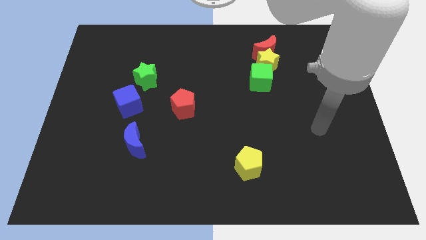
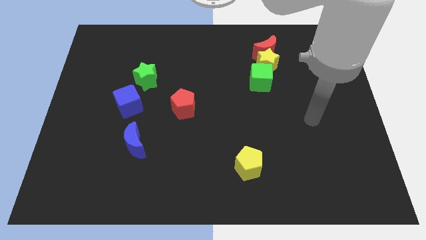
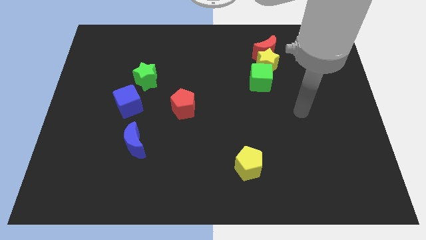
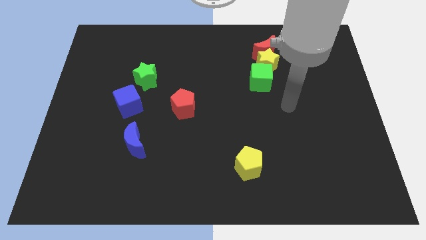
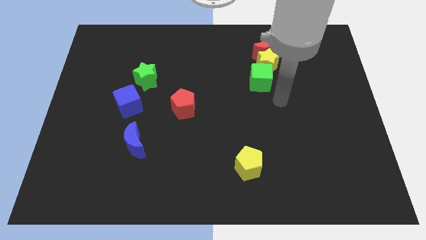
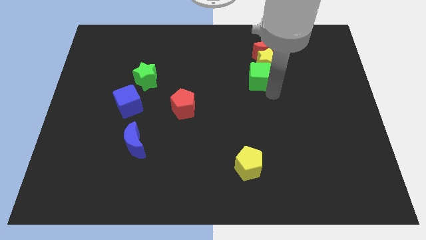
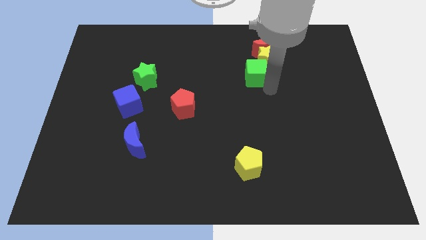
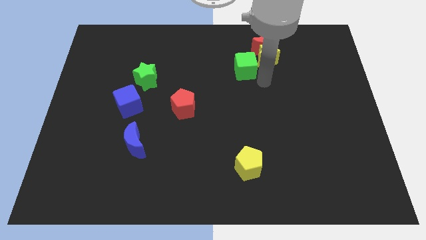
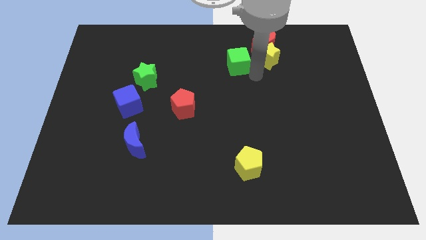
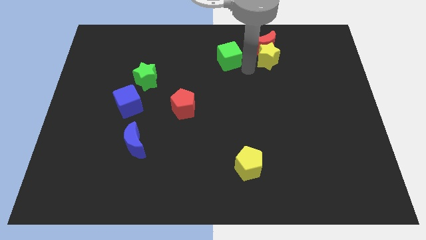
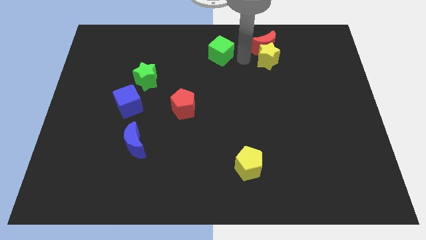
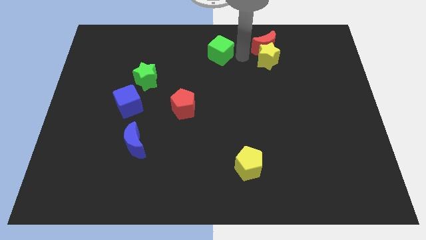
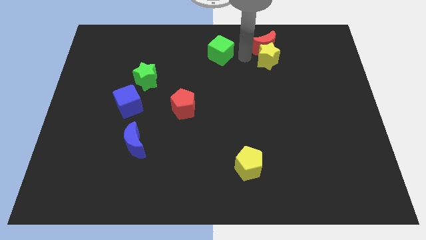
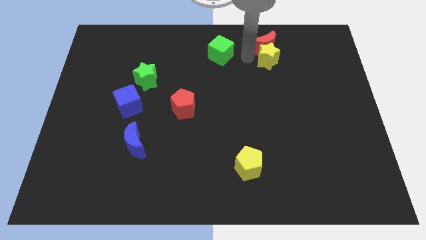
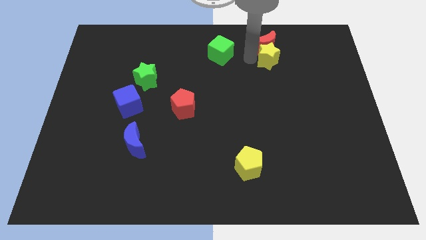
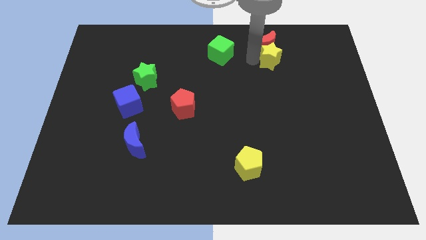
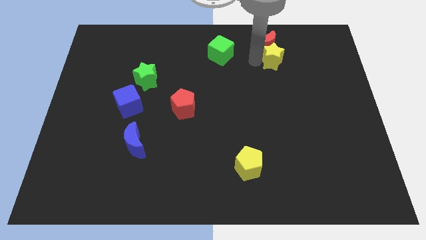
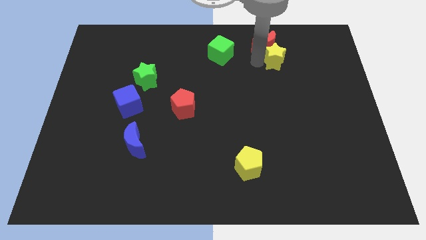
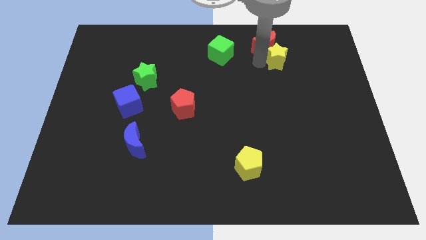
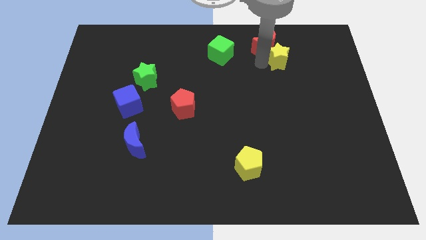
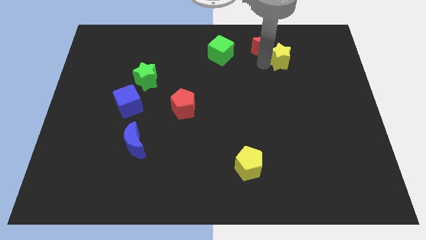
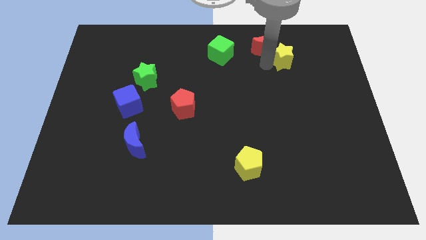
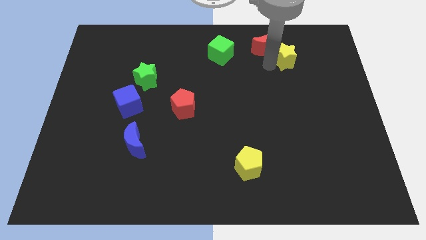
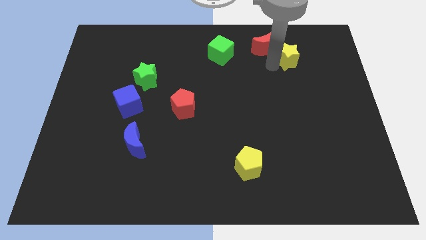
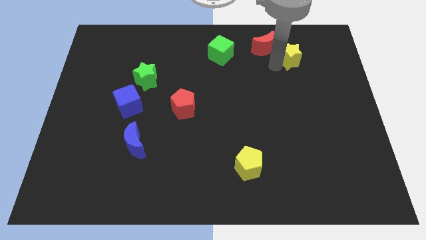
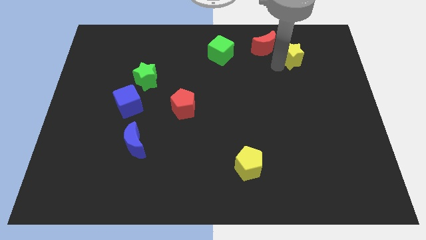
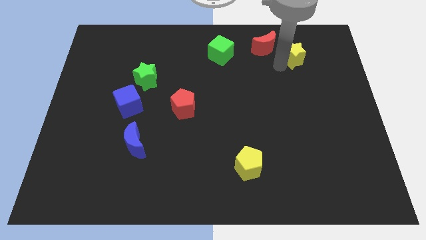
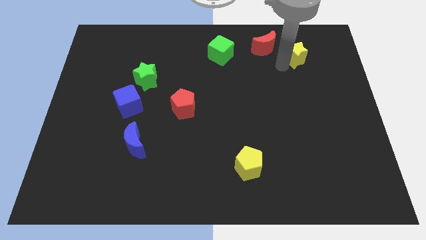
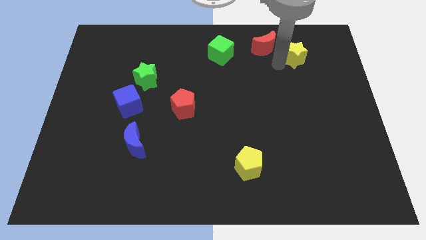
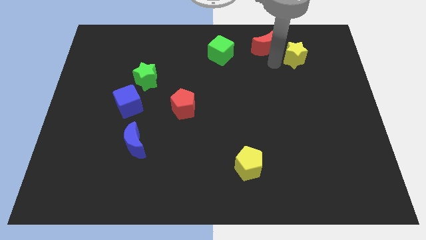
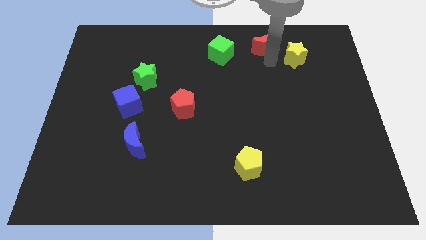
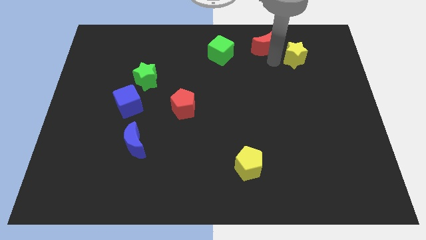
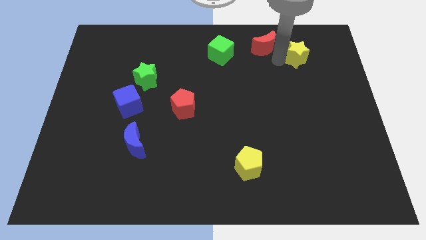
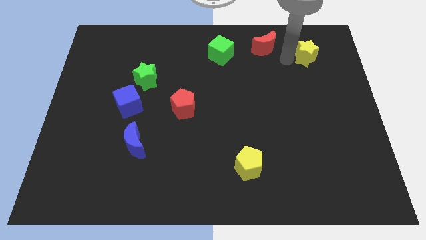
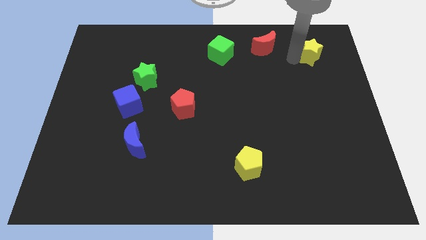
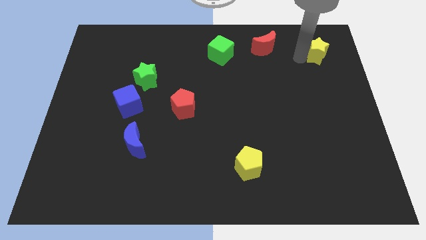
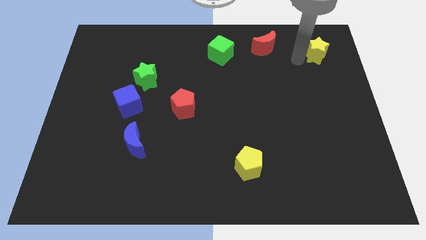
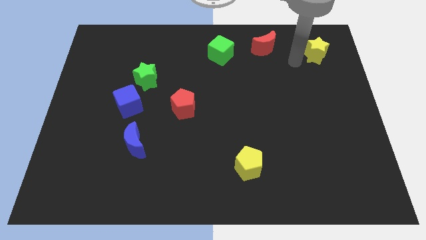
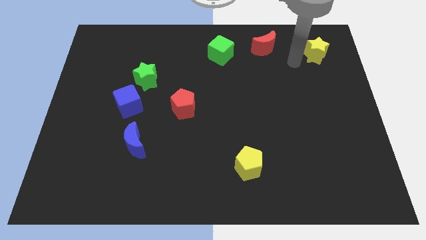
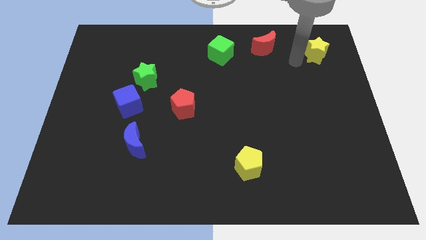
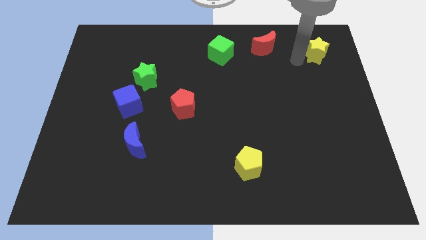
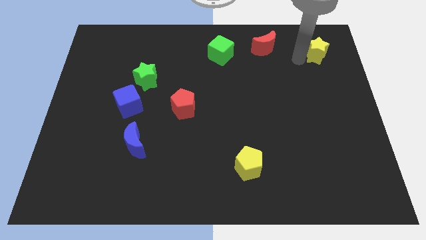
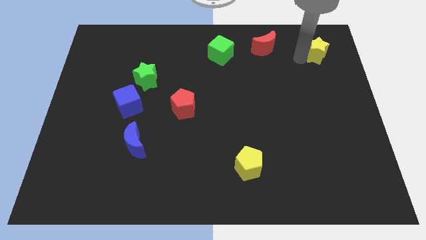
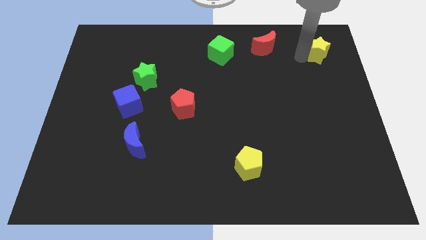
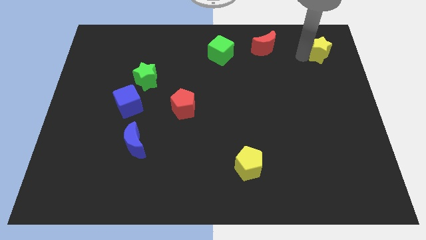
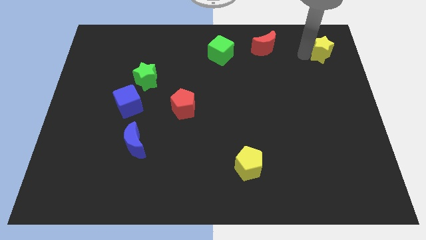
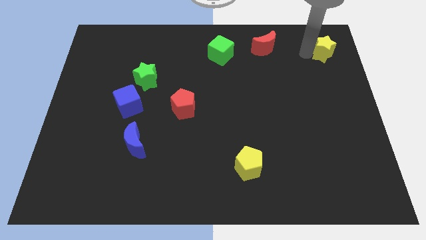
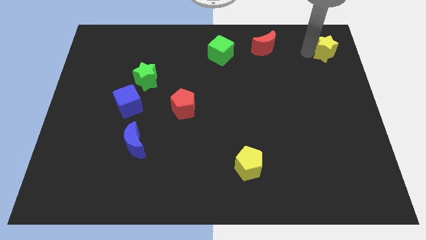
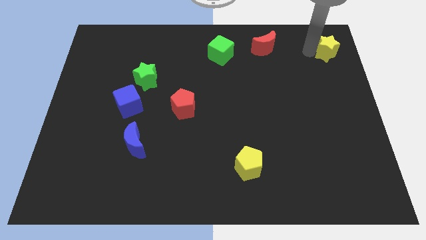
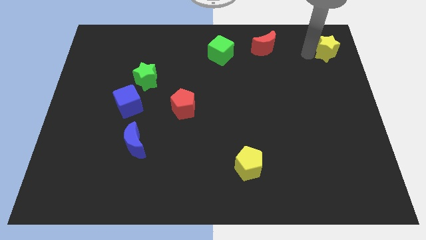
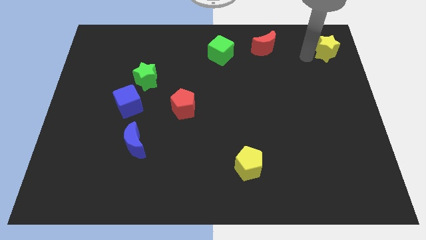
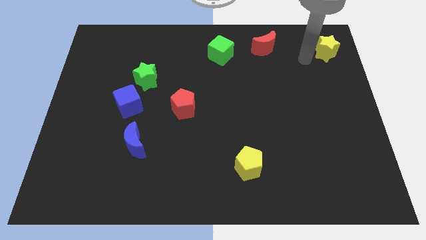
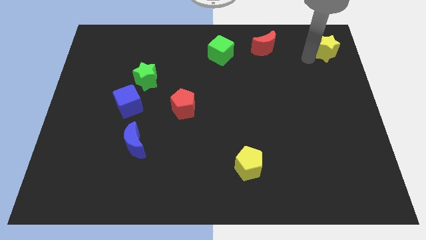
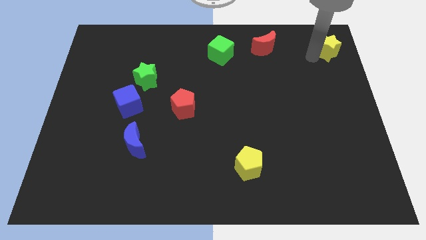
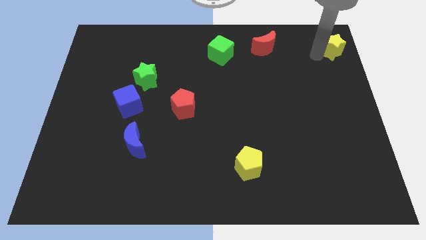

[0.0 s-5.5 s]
slide the yellow star to the top right of the board

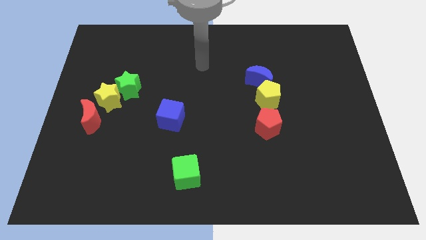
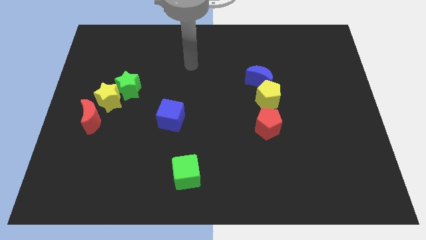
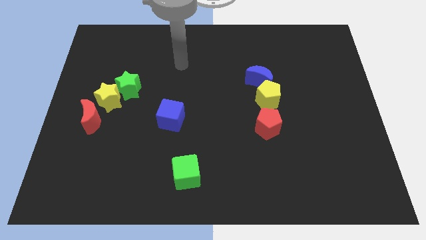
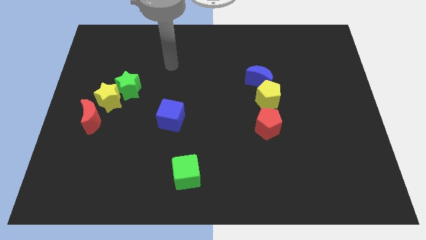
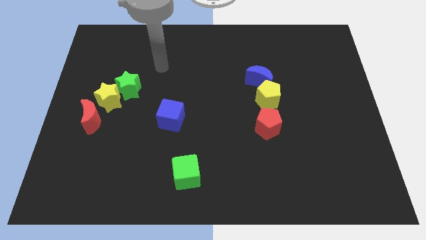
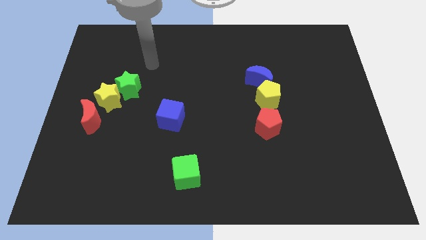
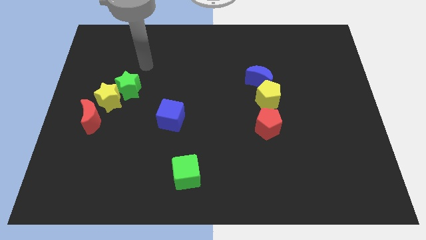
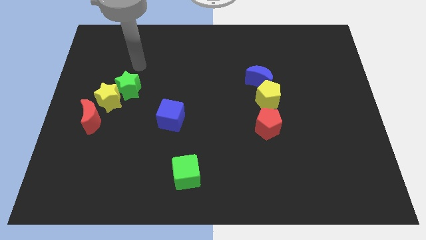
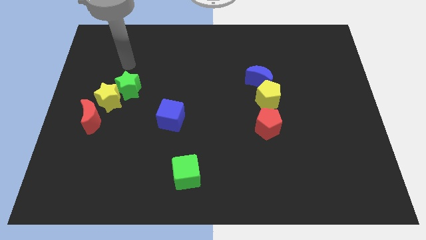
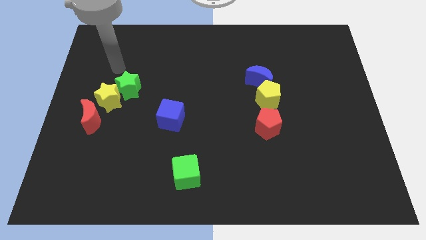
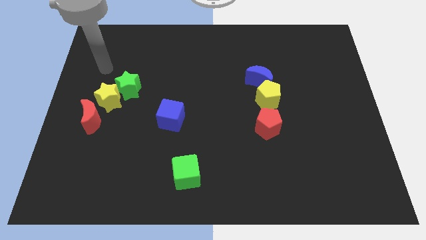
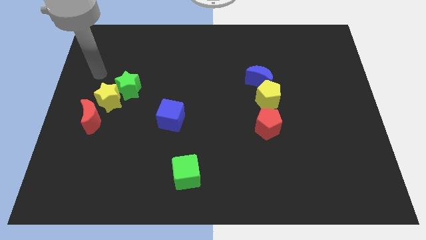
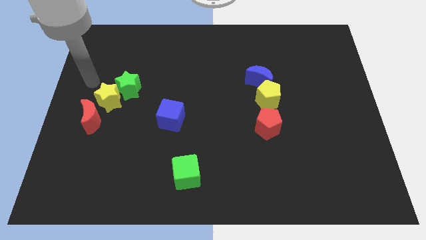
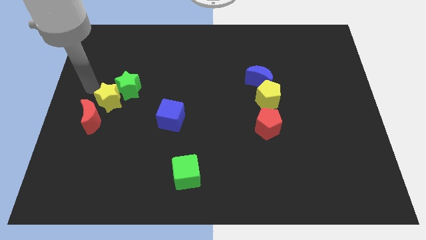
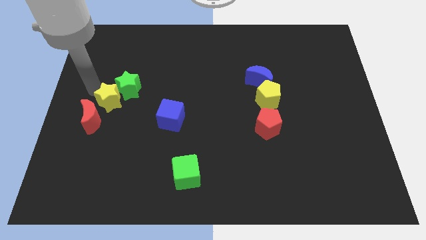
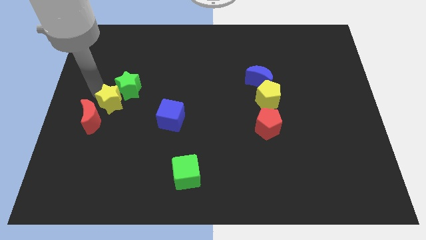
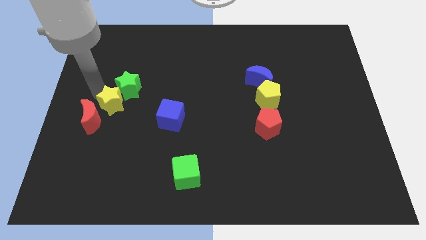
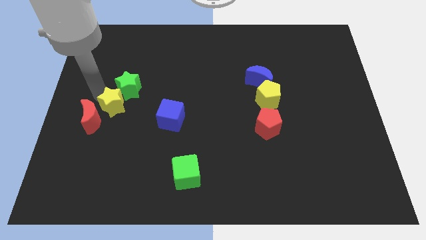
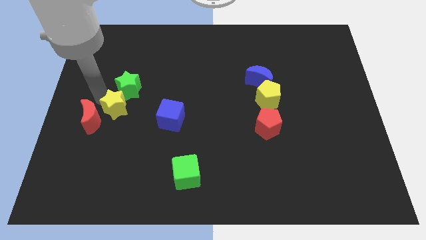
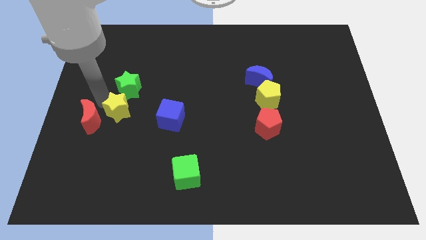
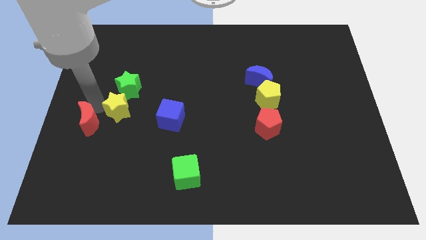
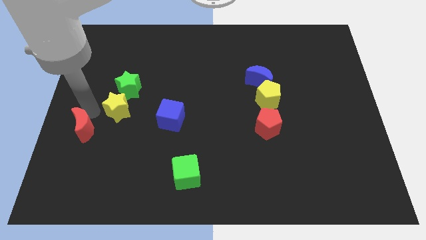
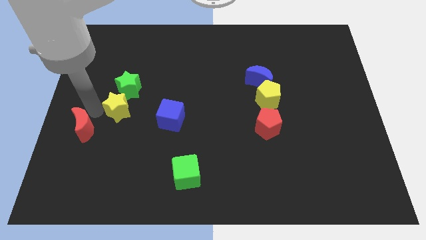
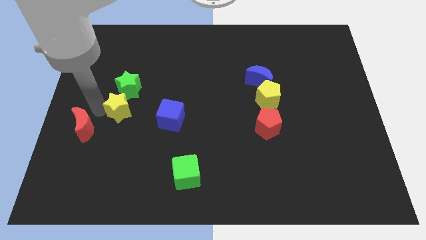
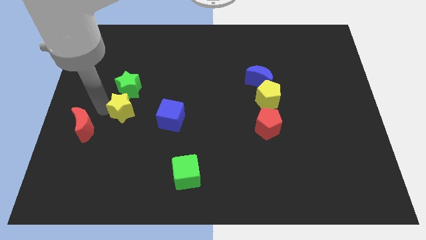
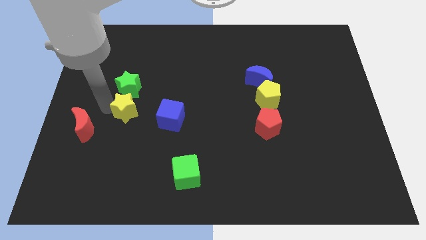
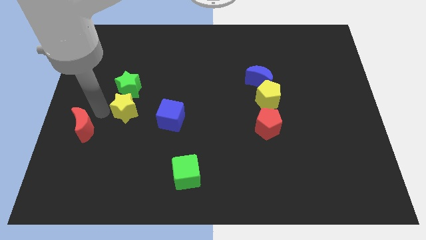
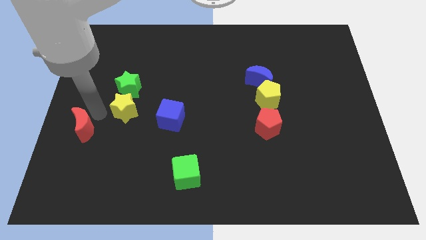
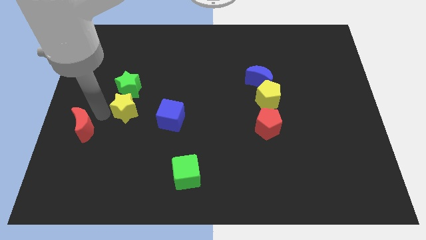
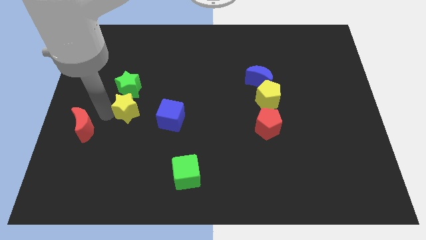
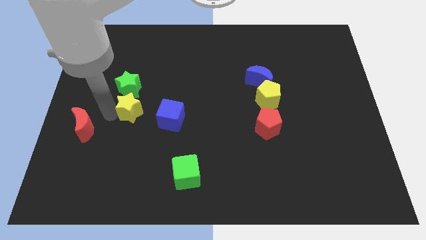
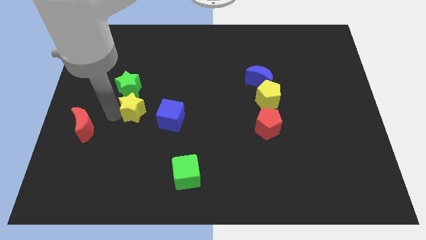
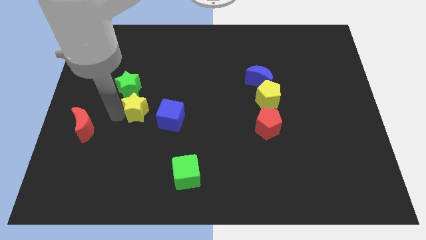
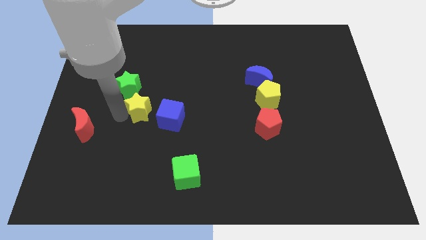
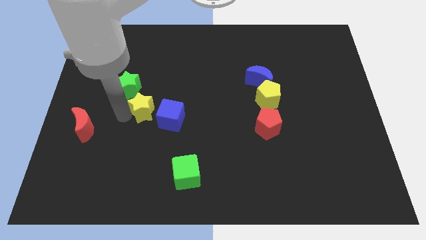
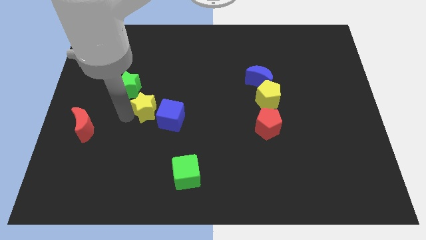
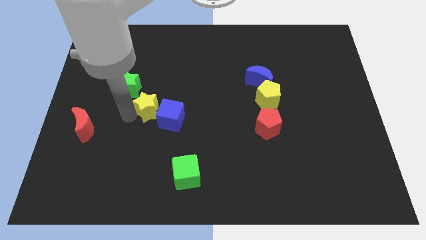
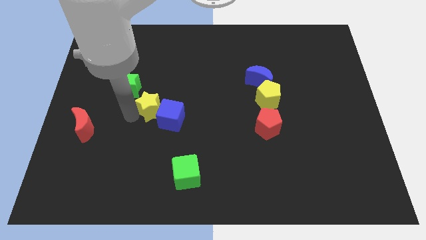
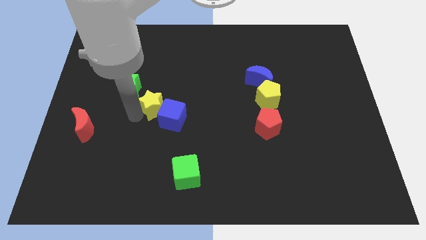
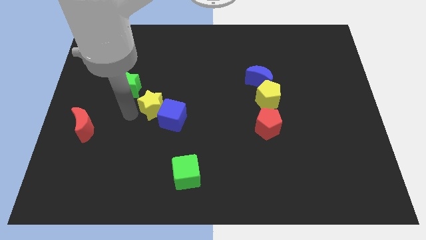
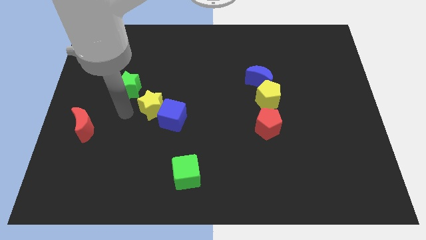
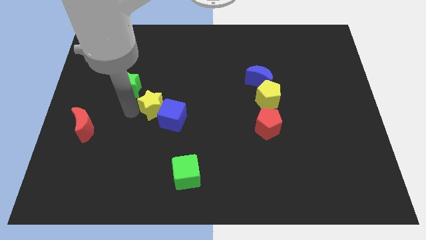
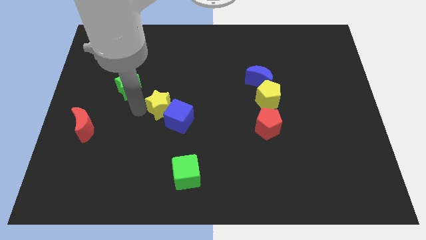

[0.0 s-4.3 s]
slide the yellow star to the middle of the board
